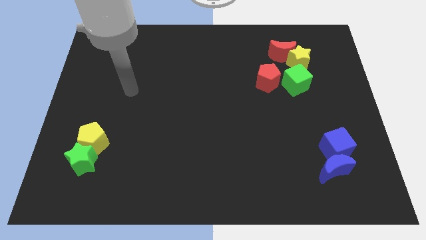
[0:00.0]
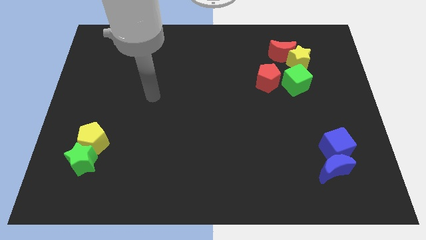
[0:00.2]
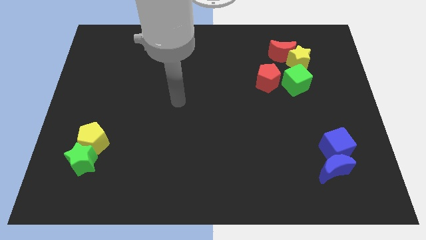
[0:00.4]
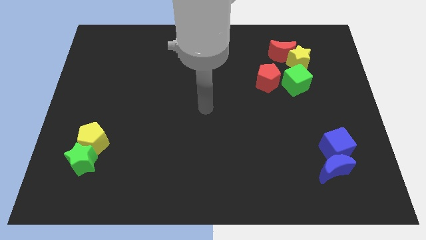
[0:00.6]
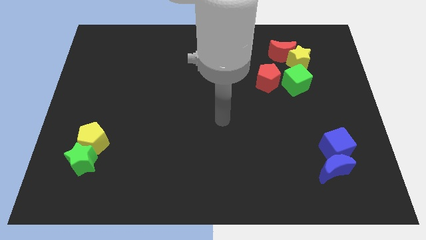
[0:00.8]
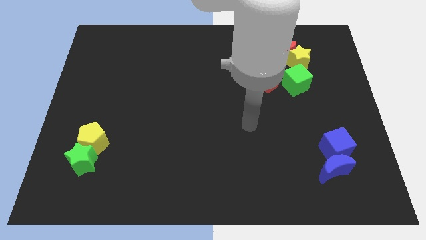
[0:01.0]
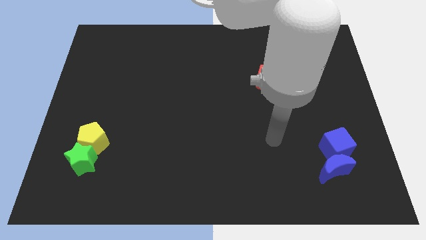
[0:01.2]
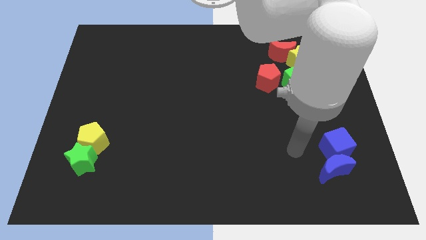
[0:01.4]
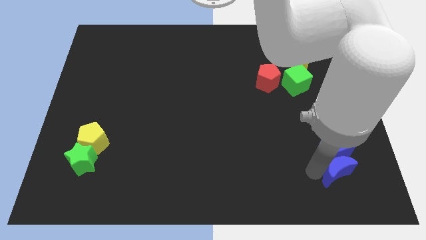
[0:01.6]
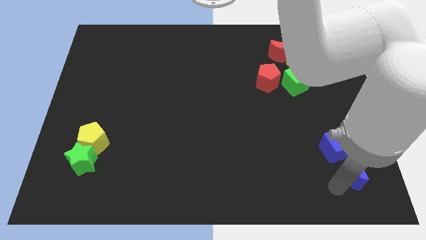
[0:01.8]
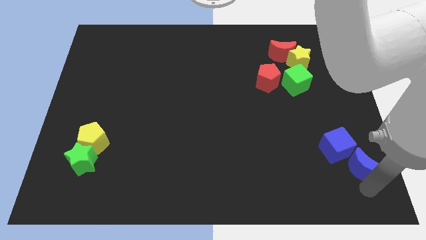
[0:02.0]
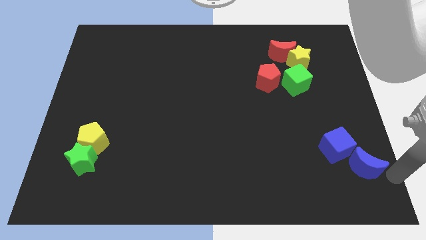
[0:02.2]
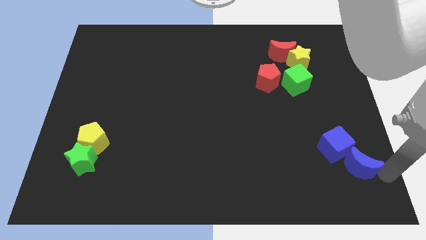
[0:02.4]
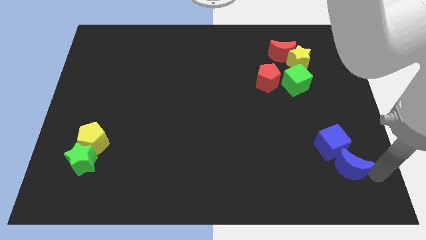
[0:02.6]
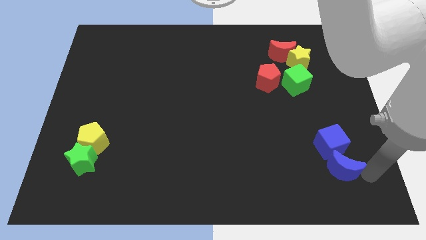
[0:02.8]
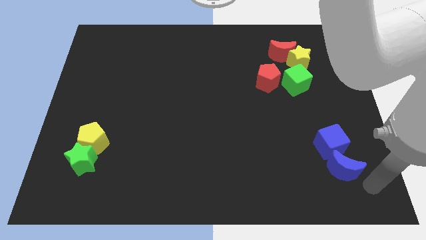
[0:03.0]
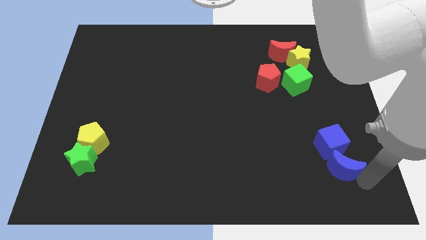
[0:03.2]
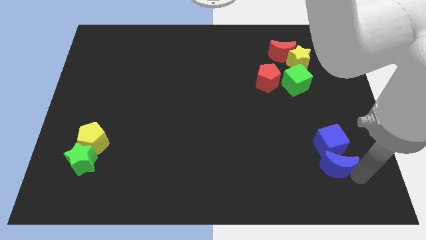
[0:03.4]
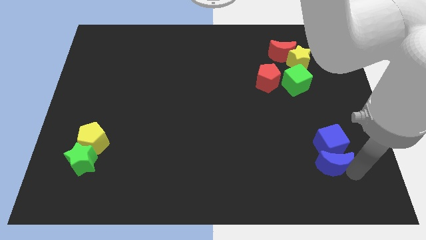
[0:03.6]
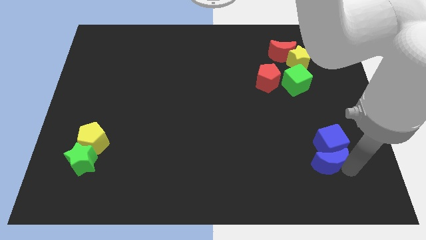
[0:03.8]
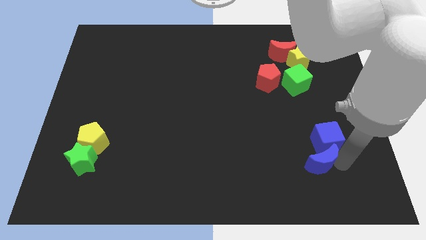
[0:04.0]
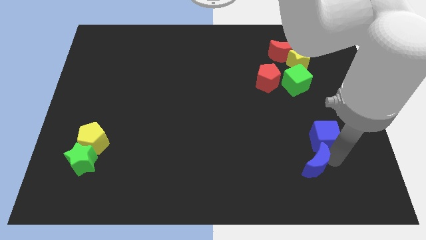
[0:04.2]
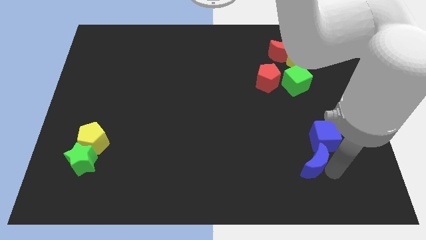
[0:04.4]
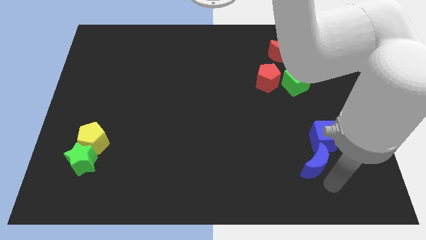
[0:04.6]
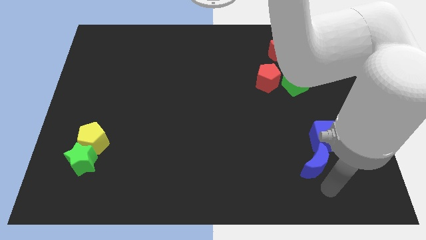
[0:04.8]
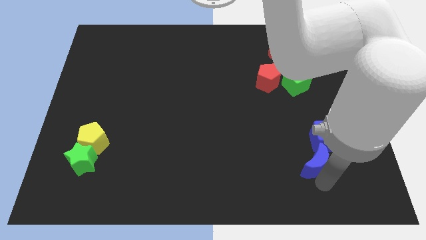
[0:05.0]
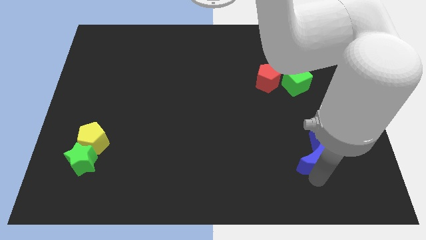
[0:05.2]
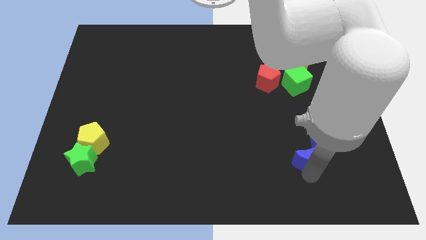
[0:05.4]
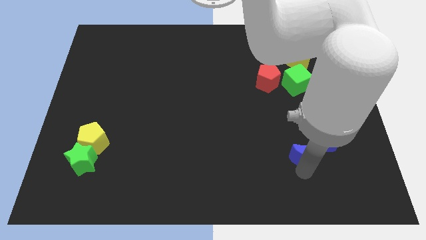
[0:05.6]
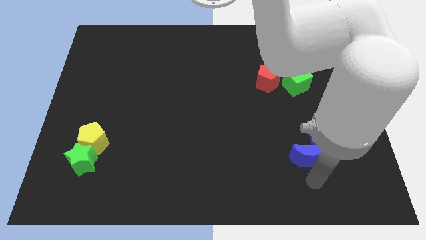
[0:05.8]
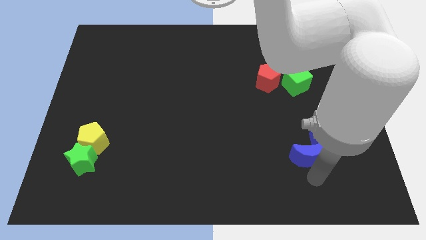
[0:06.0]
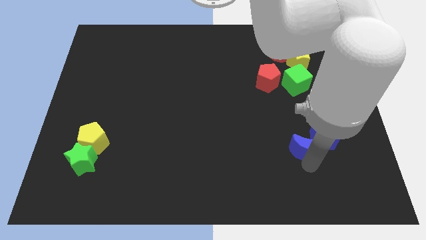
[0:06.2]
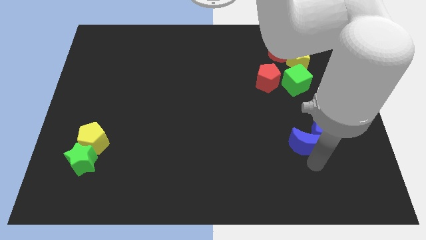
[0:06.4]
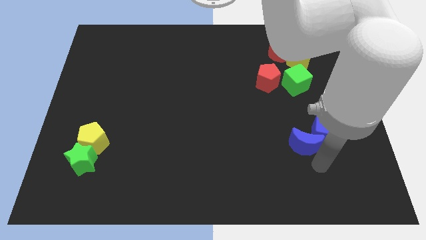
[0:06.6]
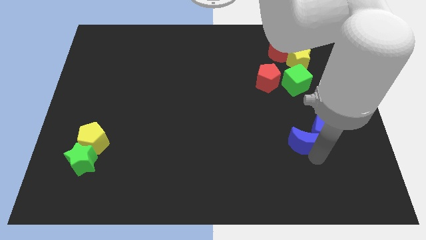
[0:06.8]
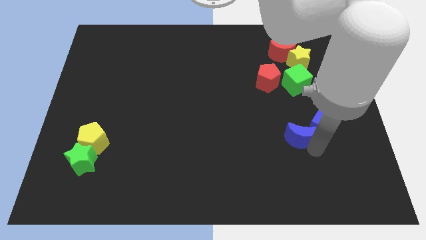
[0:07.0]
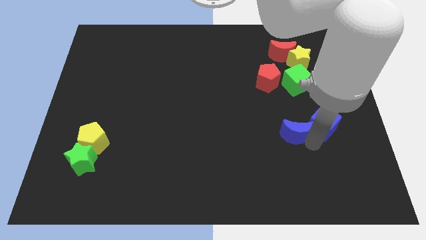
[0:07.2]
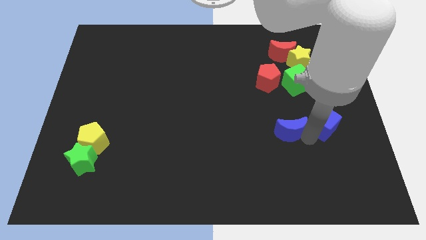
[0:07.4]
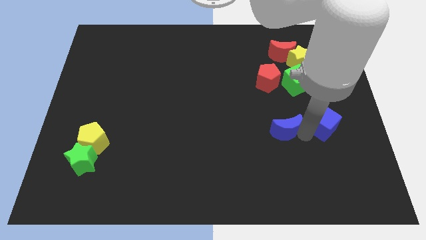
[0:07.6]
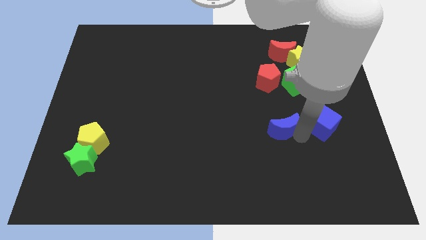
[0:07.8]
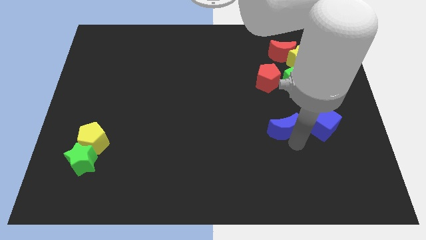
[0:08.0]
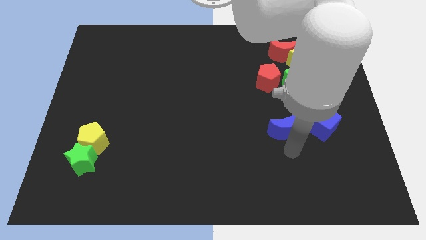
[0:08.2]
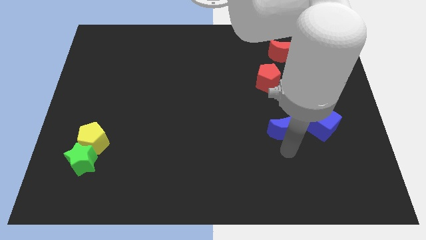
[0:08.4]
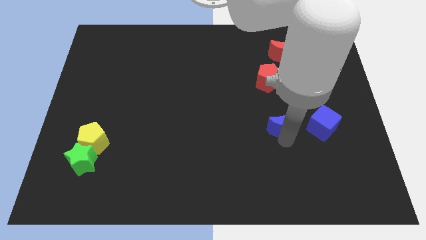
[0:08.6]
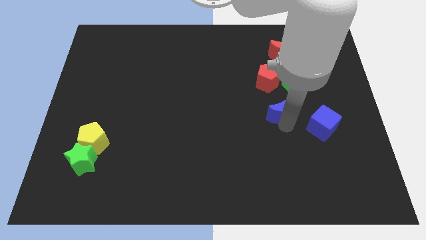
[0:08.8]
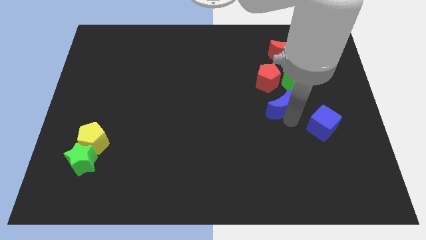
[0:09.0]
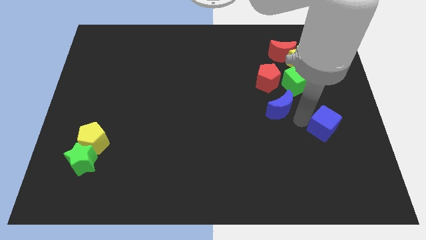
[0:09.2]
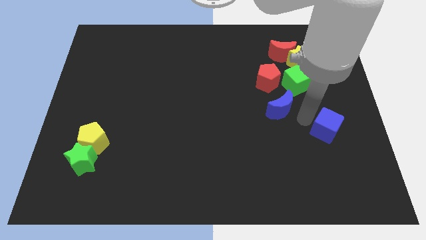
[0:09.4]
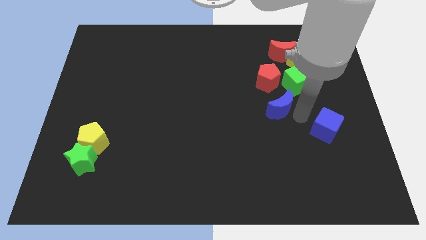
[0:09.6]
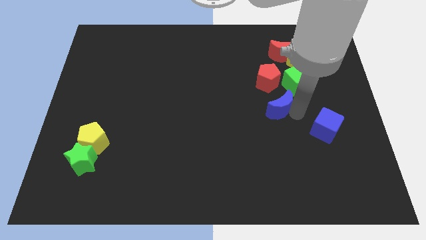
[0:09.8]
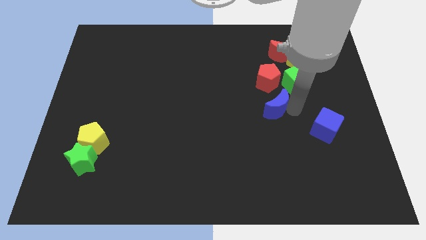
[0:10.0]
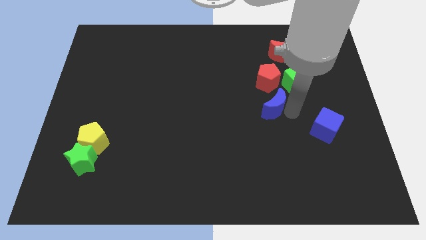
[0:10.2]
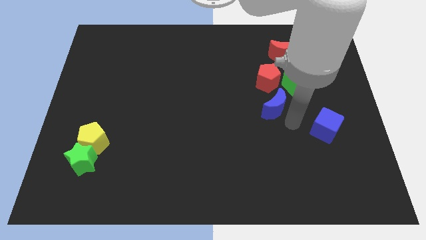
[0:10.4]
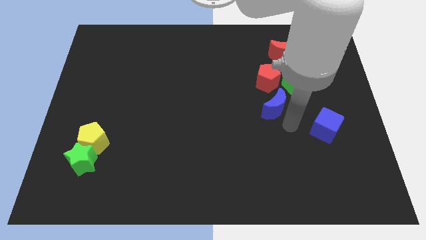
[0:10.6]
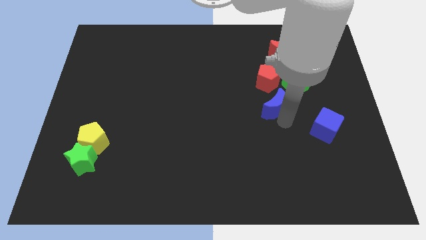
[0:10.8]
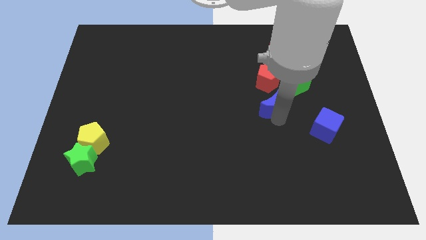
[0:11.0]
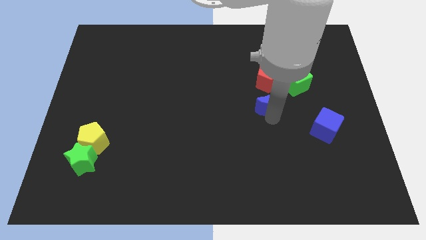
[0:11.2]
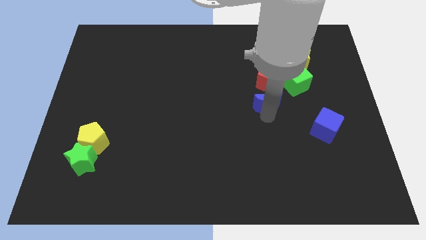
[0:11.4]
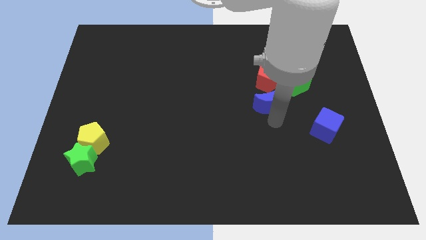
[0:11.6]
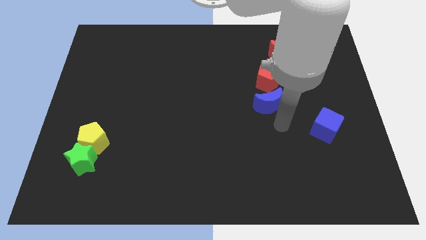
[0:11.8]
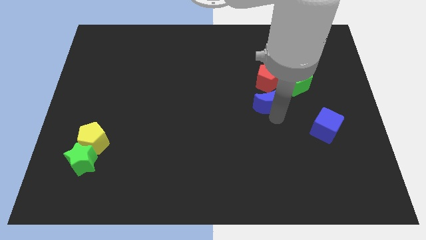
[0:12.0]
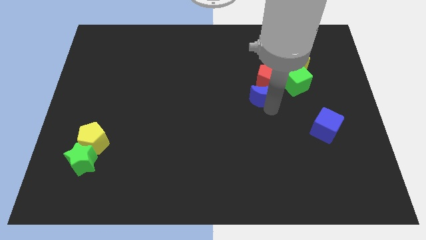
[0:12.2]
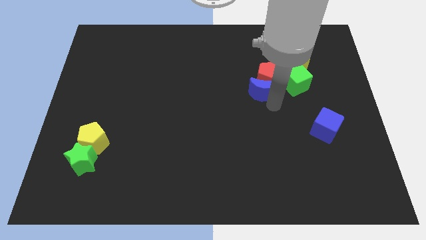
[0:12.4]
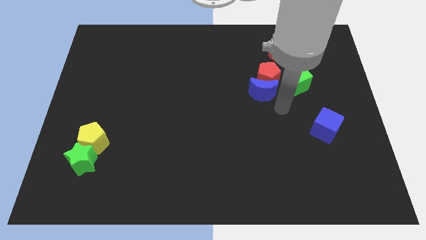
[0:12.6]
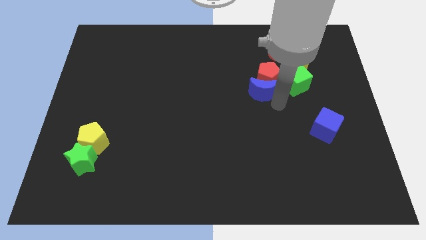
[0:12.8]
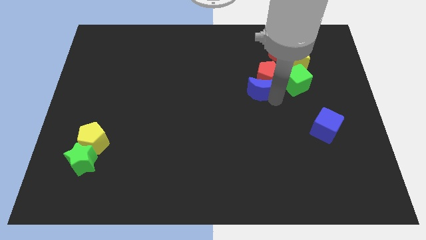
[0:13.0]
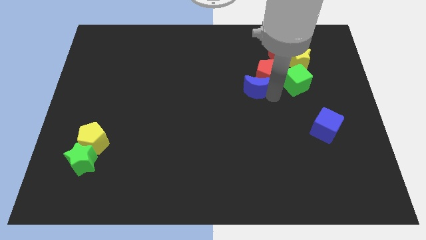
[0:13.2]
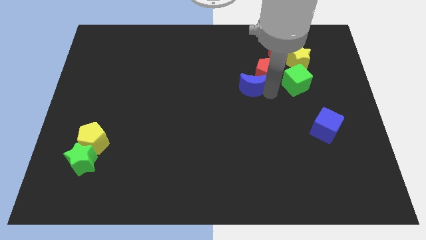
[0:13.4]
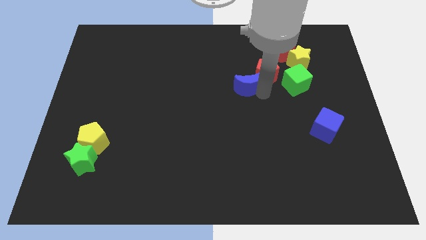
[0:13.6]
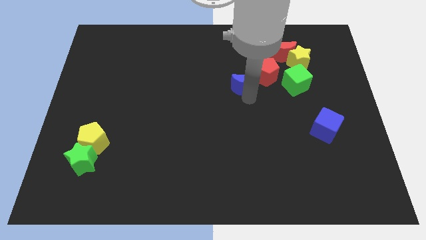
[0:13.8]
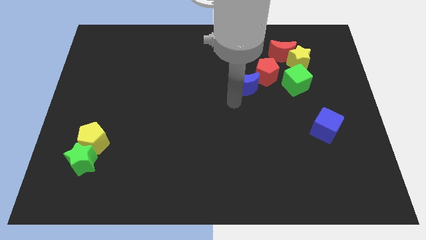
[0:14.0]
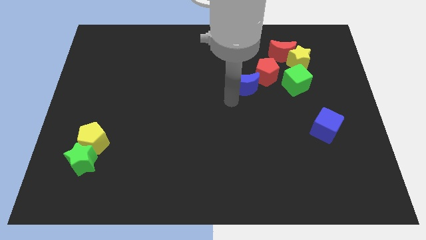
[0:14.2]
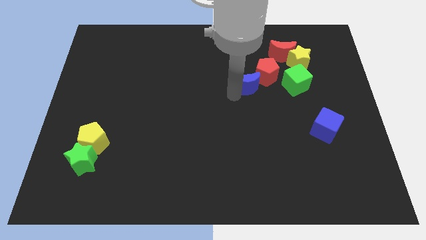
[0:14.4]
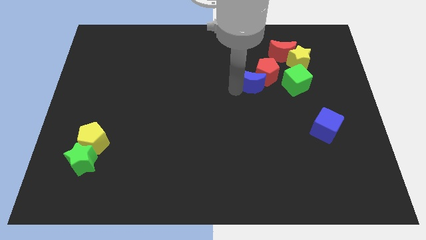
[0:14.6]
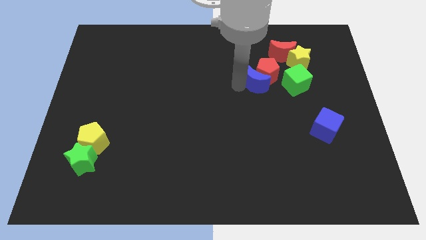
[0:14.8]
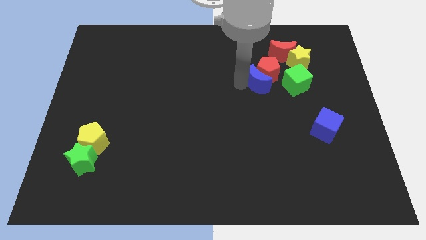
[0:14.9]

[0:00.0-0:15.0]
move the blue moon to the bottom left of the red moon

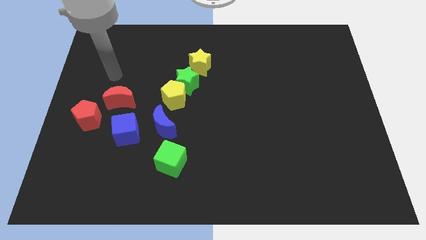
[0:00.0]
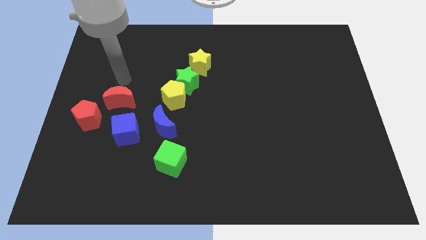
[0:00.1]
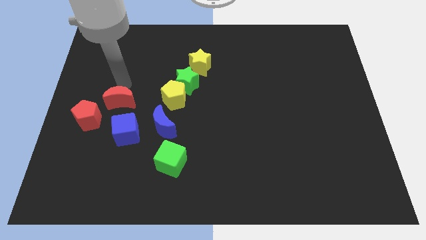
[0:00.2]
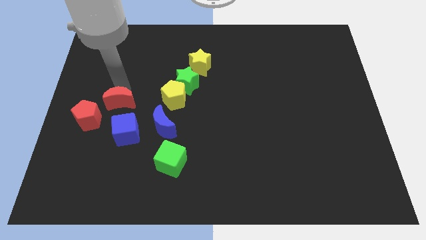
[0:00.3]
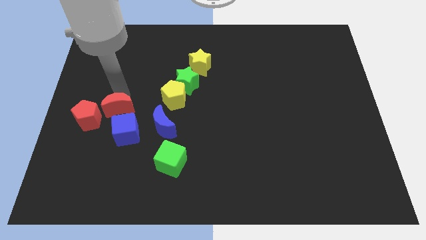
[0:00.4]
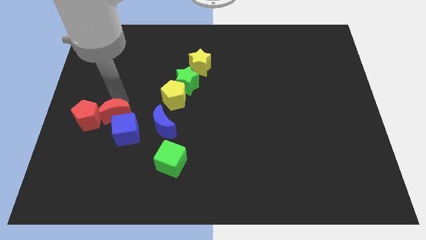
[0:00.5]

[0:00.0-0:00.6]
put the red moon to the left side of the blue moon
